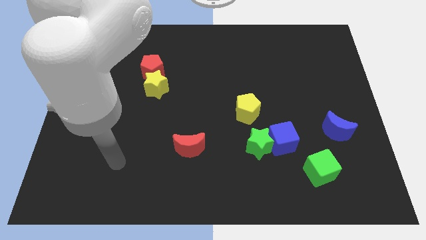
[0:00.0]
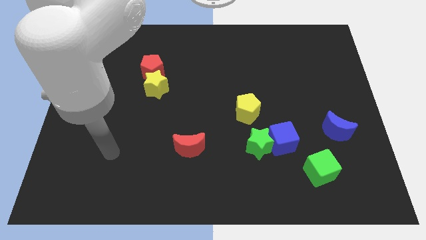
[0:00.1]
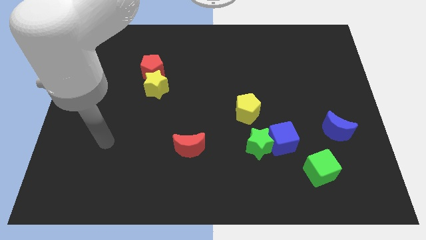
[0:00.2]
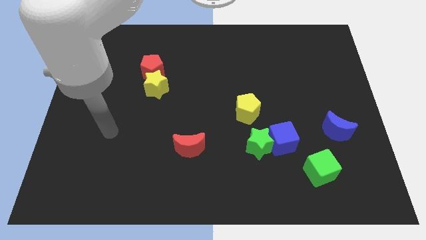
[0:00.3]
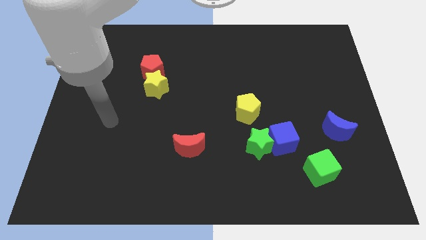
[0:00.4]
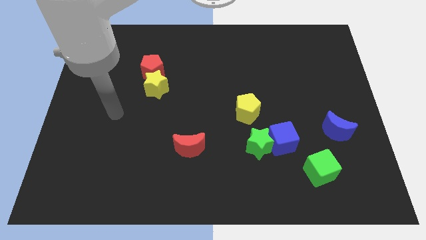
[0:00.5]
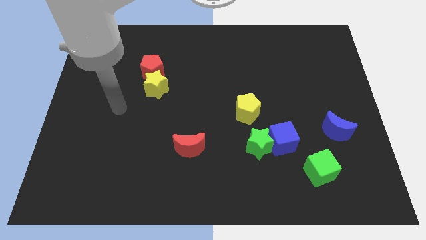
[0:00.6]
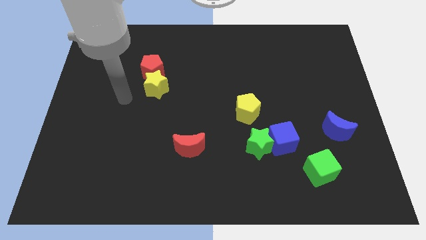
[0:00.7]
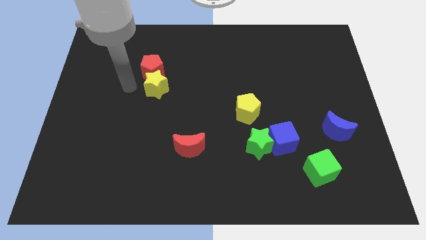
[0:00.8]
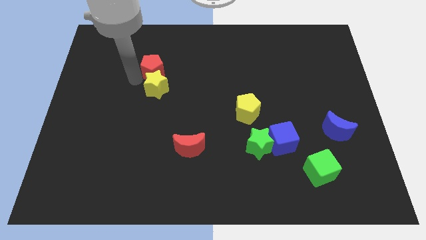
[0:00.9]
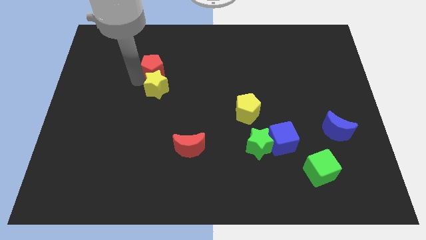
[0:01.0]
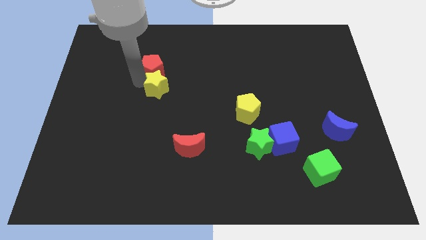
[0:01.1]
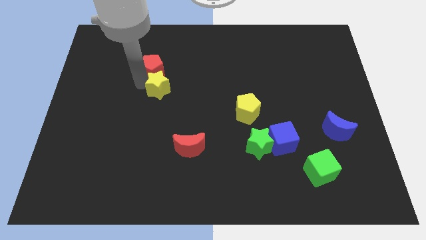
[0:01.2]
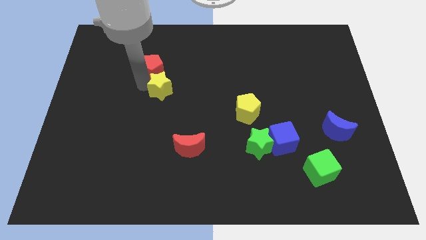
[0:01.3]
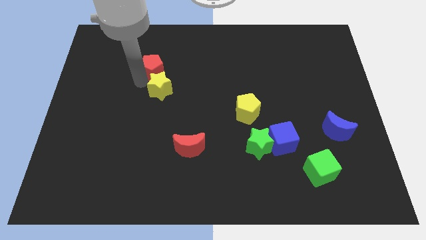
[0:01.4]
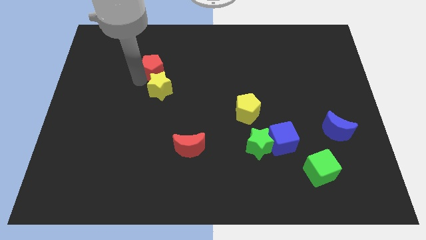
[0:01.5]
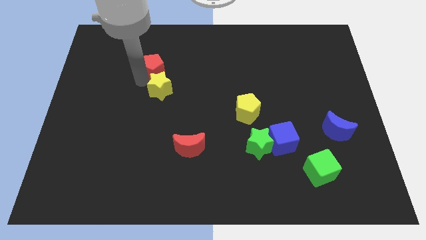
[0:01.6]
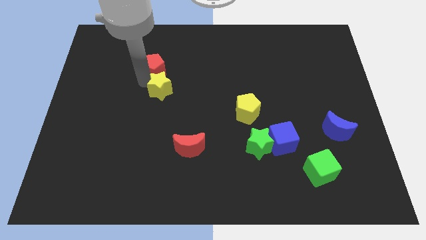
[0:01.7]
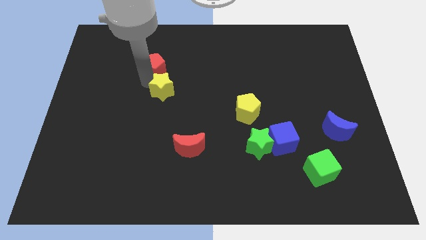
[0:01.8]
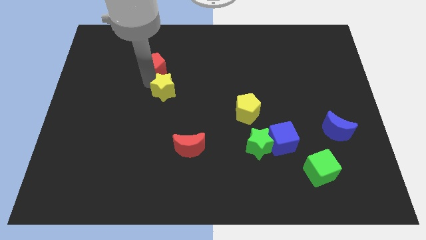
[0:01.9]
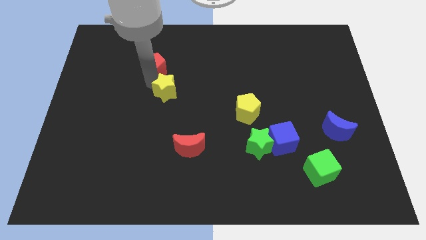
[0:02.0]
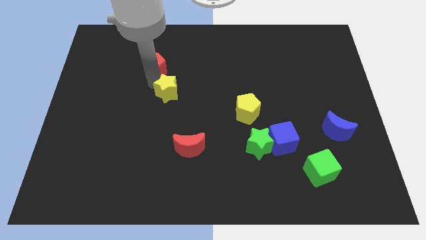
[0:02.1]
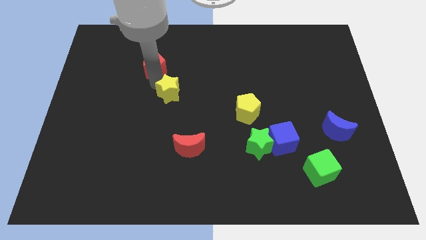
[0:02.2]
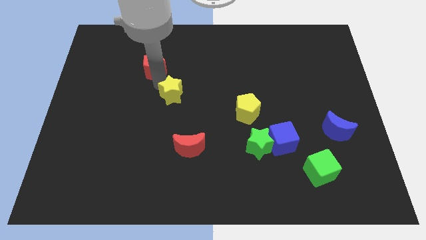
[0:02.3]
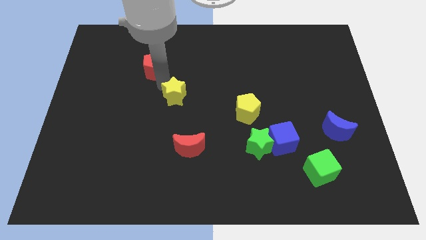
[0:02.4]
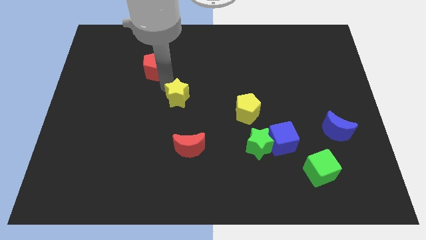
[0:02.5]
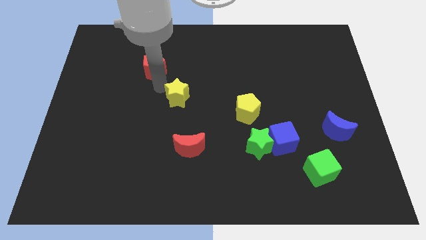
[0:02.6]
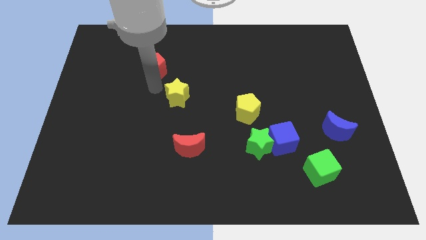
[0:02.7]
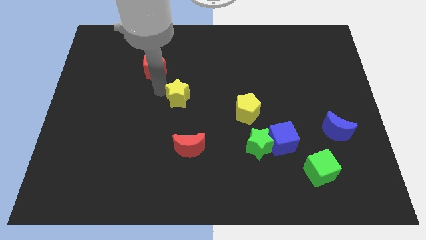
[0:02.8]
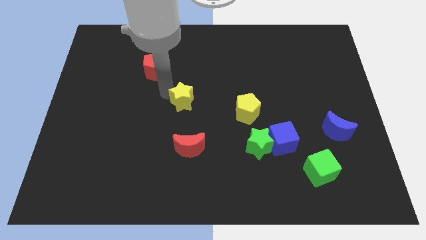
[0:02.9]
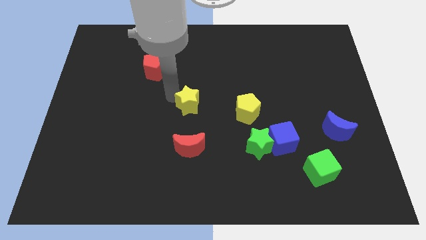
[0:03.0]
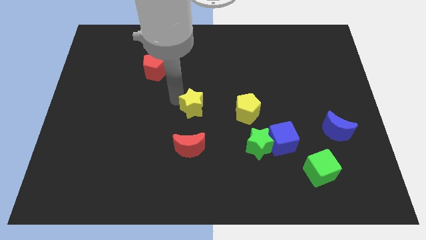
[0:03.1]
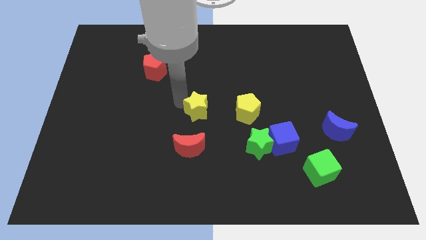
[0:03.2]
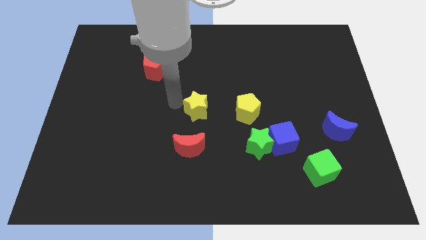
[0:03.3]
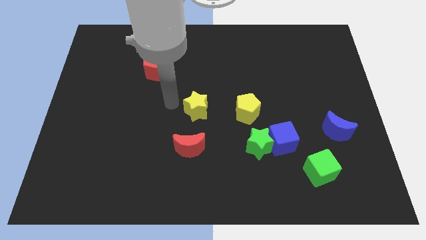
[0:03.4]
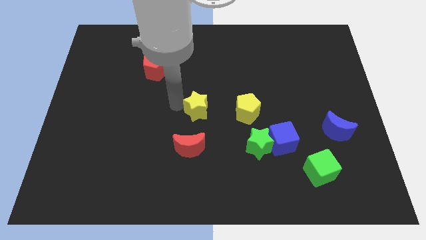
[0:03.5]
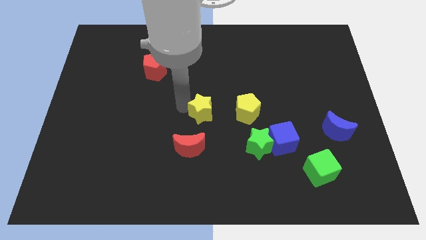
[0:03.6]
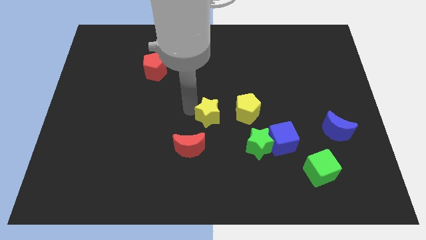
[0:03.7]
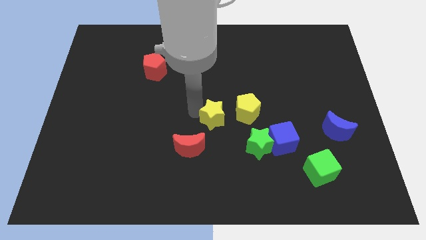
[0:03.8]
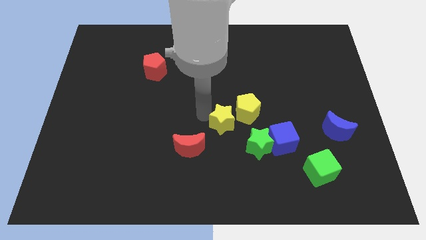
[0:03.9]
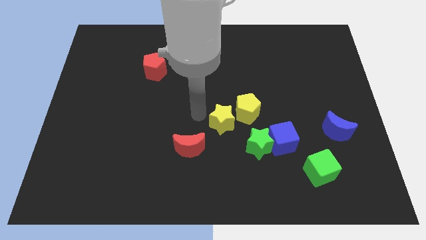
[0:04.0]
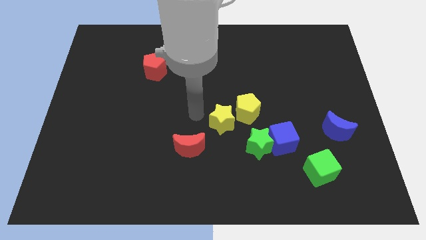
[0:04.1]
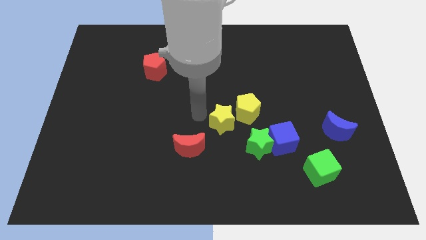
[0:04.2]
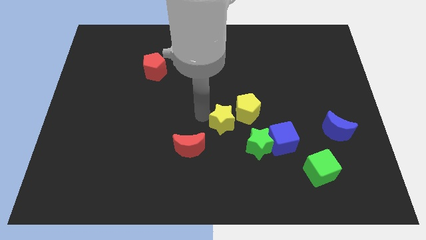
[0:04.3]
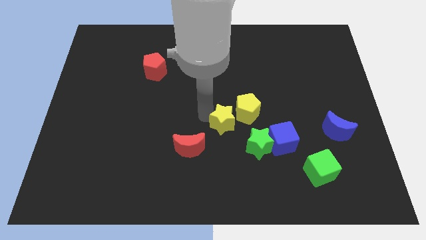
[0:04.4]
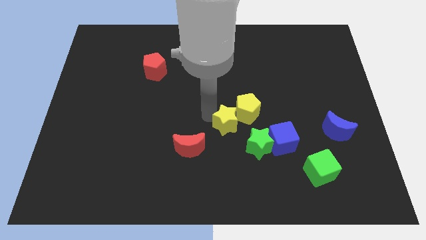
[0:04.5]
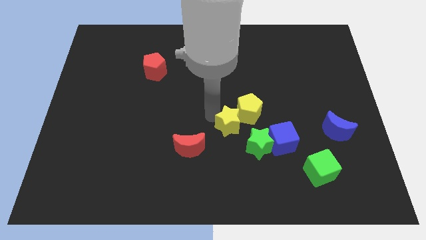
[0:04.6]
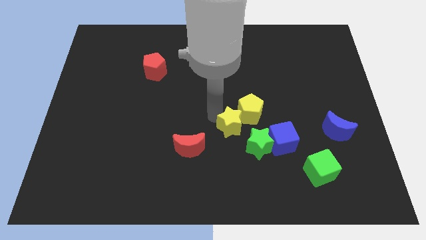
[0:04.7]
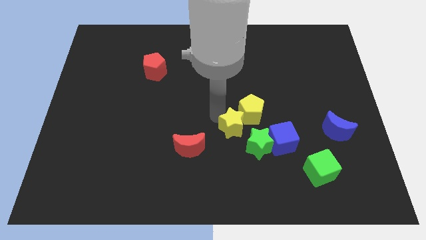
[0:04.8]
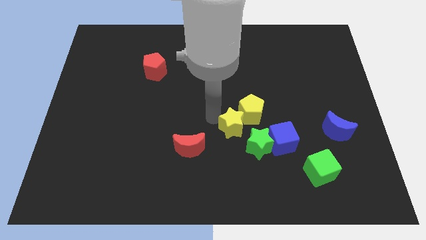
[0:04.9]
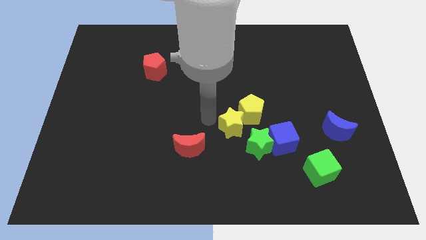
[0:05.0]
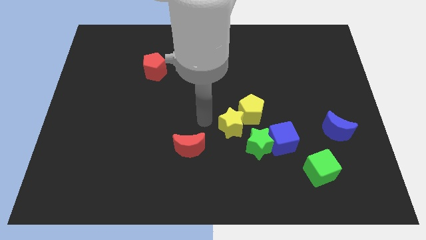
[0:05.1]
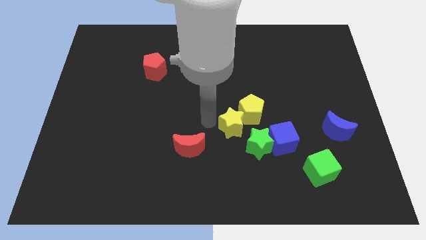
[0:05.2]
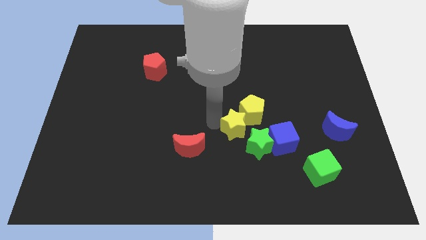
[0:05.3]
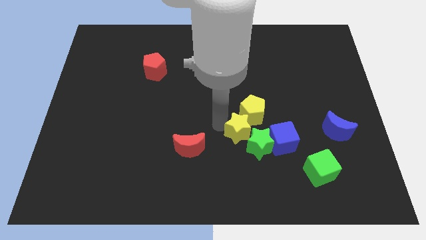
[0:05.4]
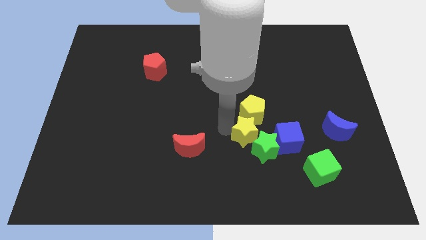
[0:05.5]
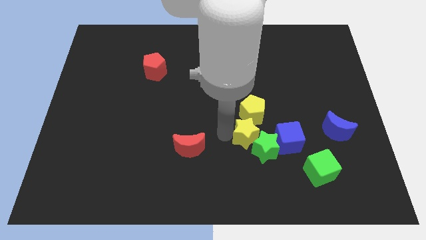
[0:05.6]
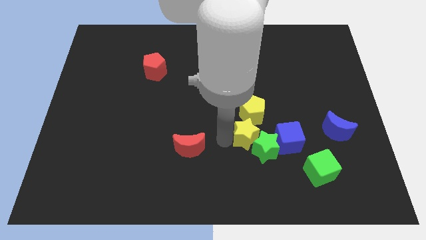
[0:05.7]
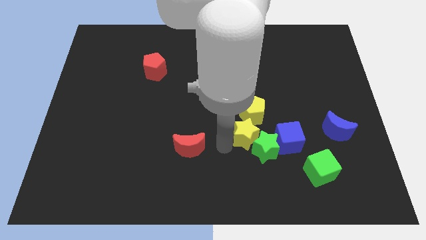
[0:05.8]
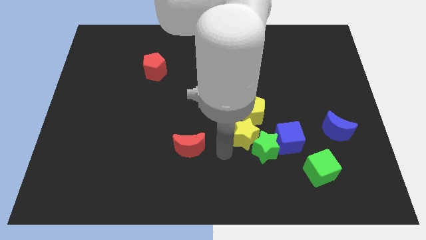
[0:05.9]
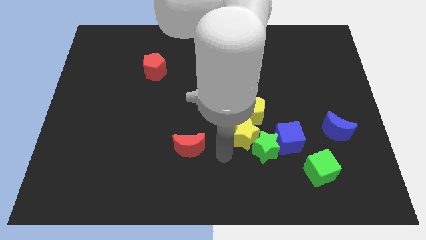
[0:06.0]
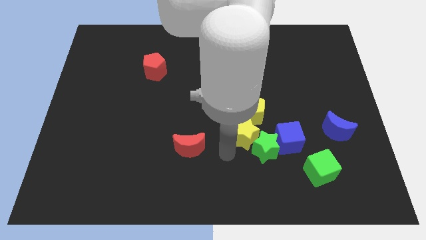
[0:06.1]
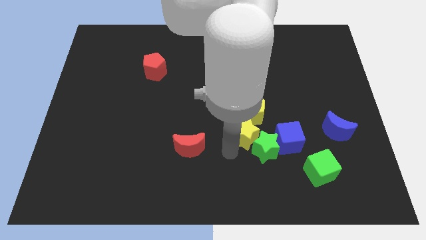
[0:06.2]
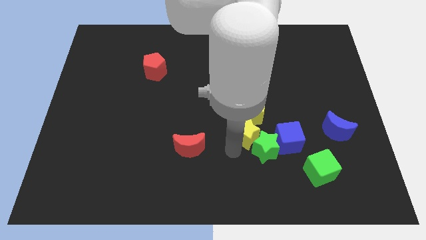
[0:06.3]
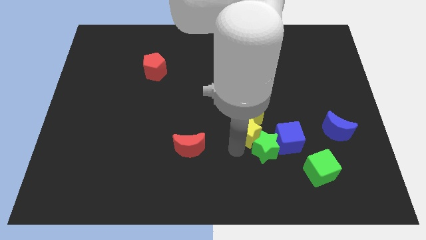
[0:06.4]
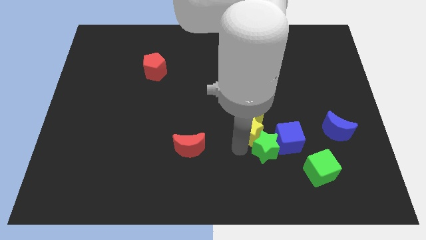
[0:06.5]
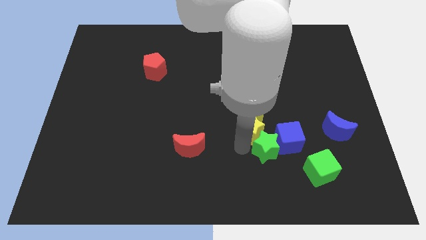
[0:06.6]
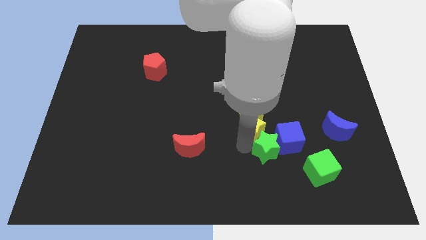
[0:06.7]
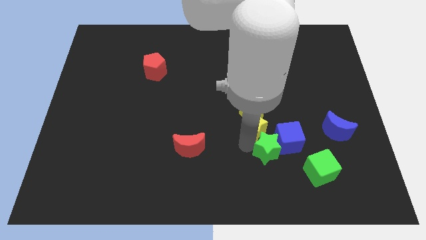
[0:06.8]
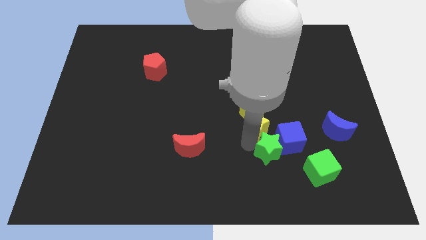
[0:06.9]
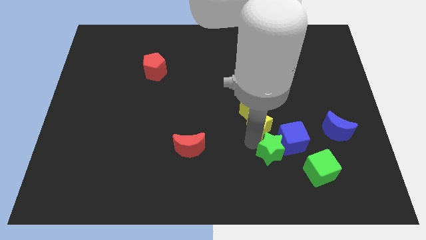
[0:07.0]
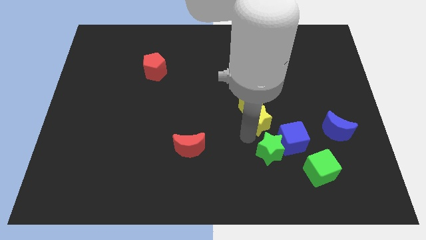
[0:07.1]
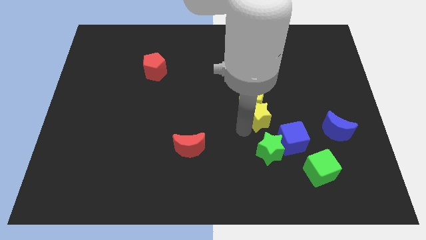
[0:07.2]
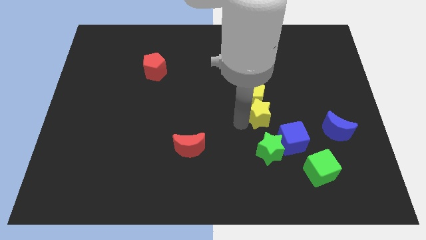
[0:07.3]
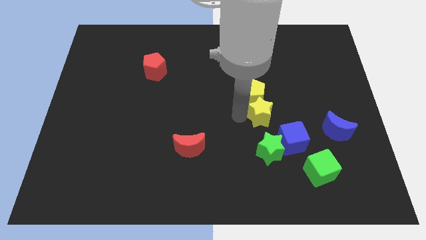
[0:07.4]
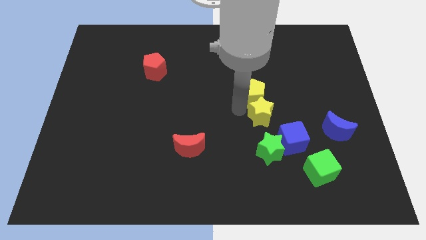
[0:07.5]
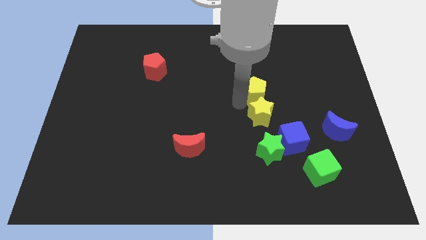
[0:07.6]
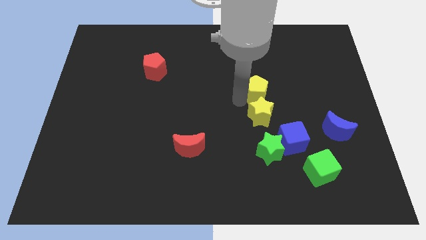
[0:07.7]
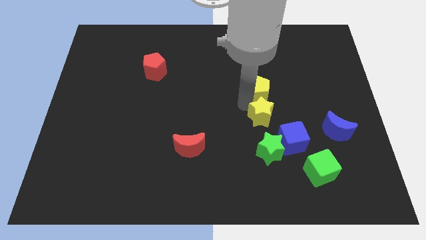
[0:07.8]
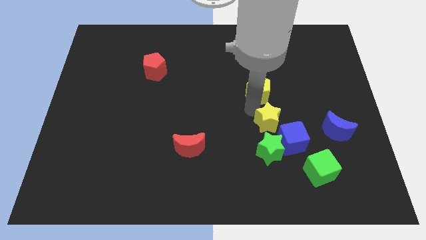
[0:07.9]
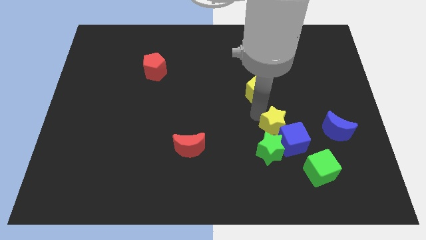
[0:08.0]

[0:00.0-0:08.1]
push the yellow star next to the blue cube
